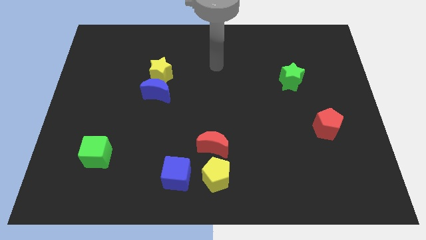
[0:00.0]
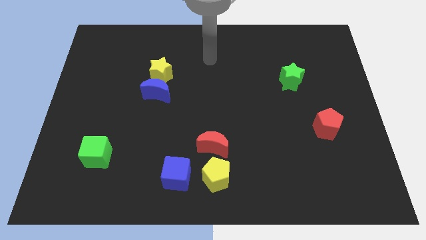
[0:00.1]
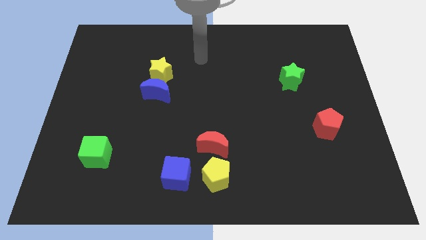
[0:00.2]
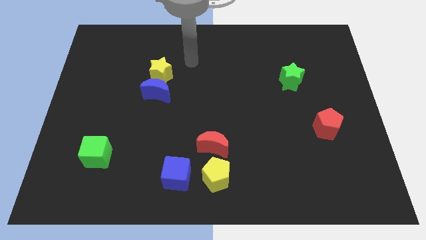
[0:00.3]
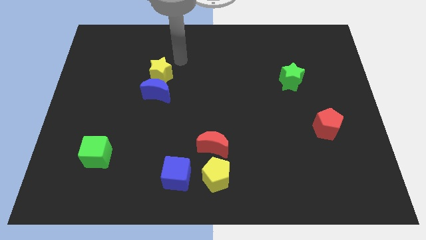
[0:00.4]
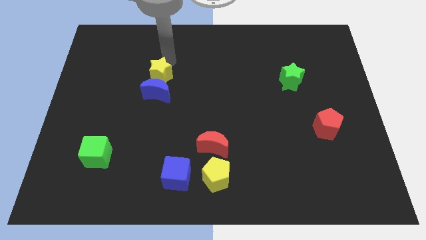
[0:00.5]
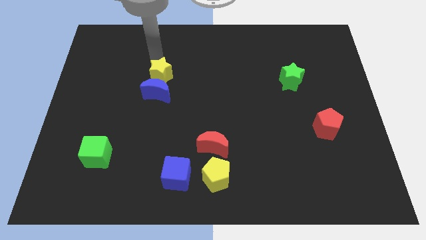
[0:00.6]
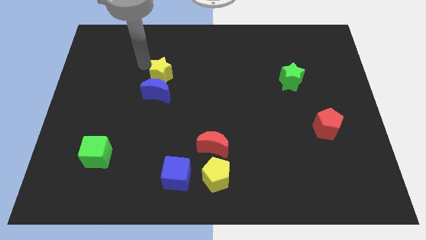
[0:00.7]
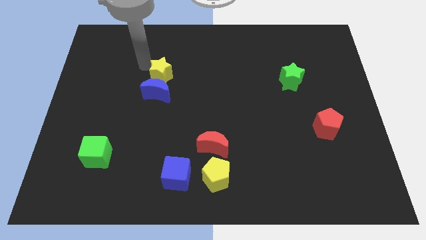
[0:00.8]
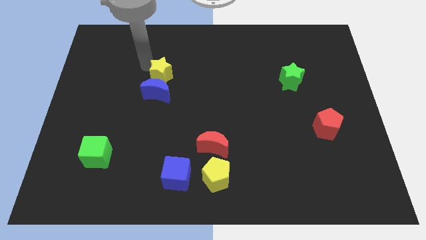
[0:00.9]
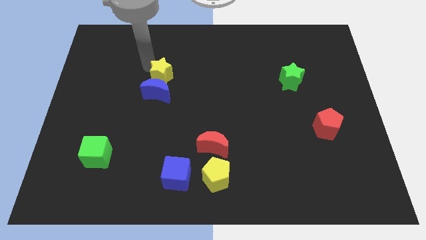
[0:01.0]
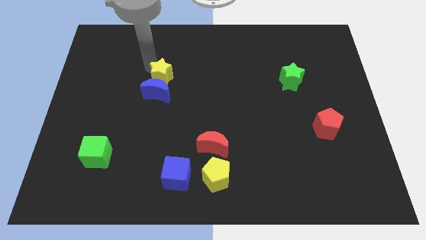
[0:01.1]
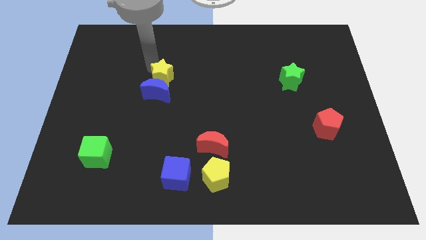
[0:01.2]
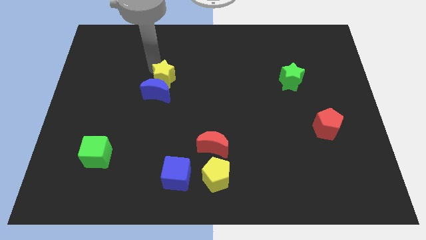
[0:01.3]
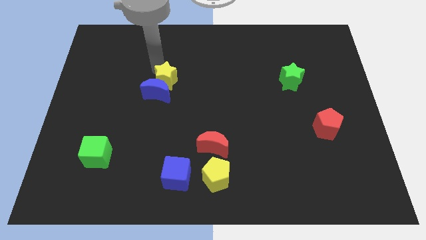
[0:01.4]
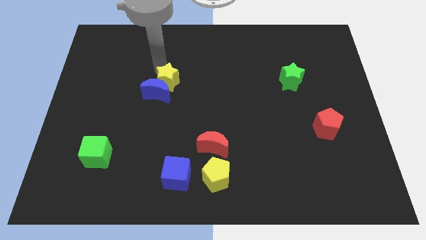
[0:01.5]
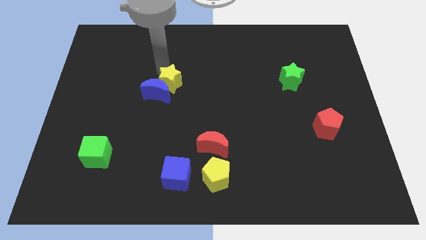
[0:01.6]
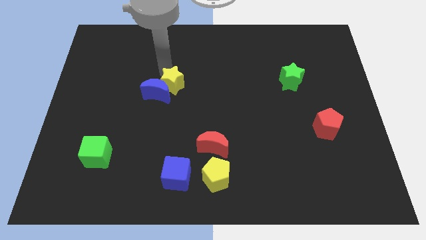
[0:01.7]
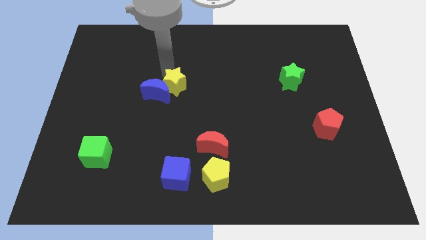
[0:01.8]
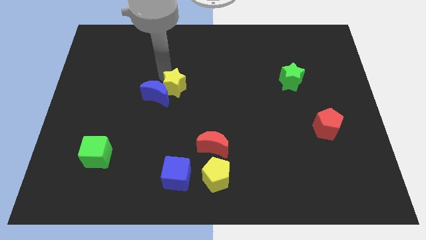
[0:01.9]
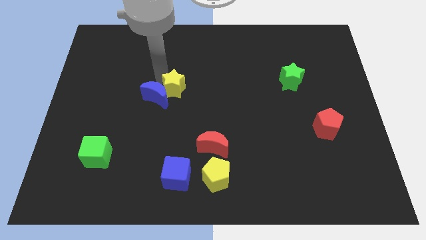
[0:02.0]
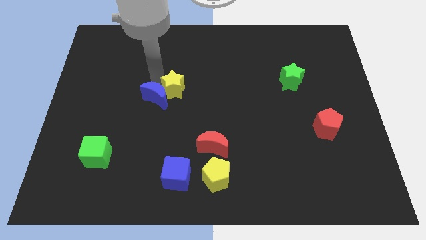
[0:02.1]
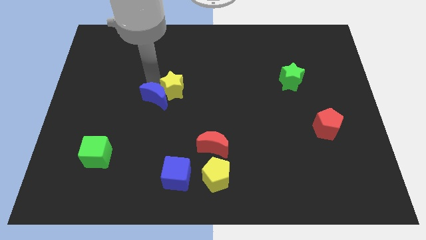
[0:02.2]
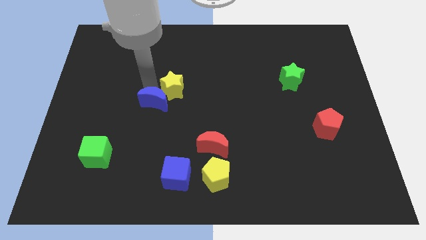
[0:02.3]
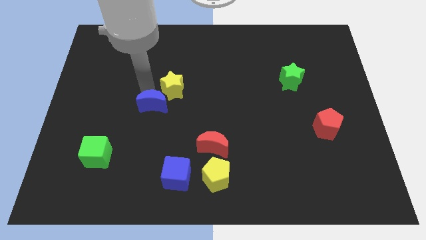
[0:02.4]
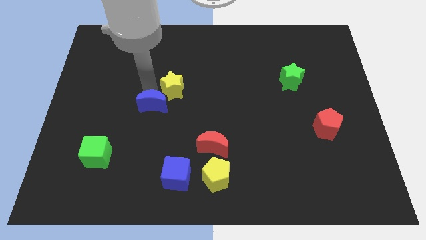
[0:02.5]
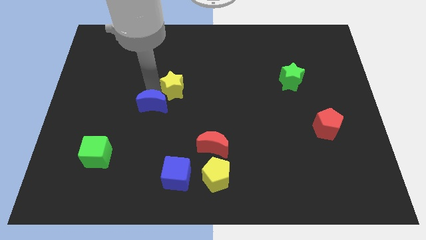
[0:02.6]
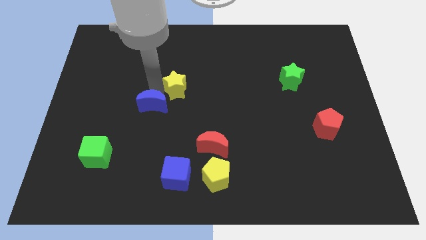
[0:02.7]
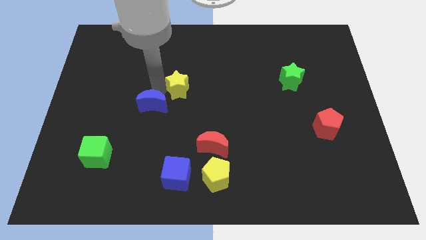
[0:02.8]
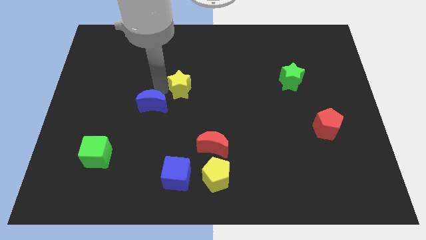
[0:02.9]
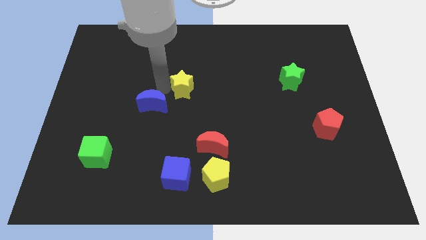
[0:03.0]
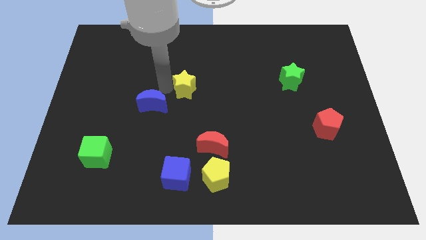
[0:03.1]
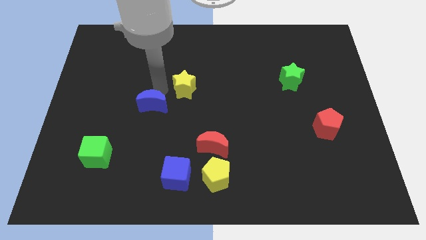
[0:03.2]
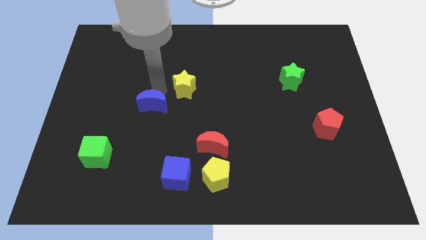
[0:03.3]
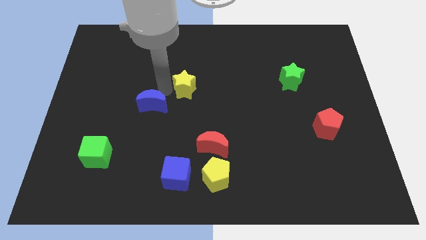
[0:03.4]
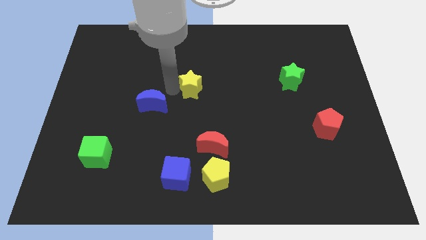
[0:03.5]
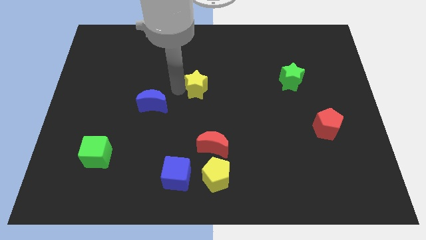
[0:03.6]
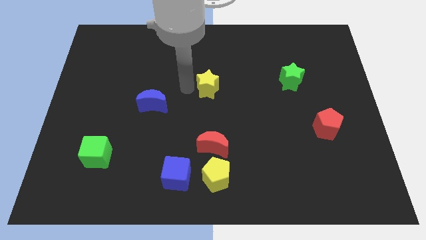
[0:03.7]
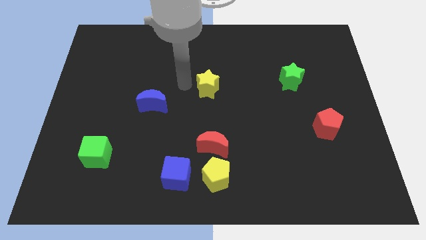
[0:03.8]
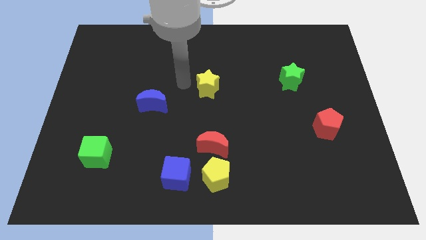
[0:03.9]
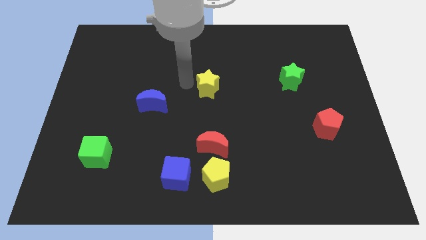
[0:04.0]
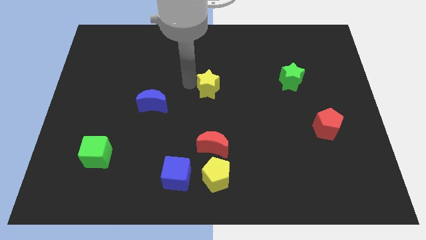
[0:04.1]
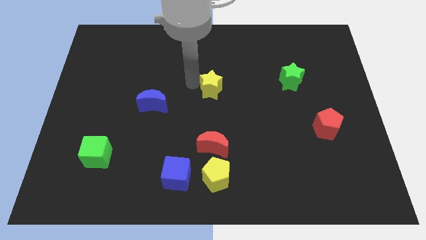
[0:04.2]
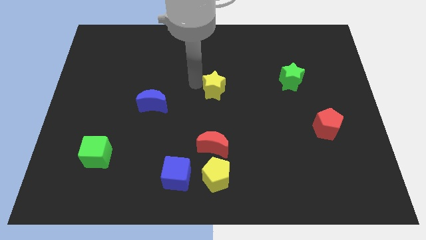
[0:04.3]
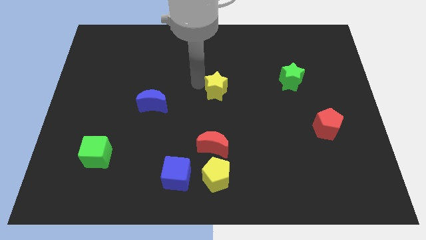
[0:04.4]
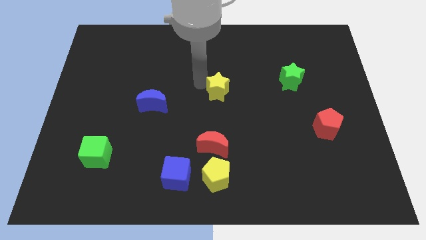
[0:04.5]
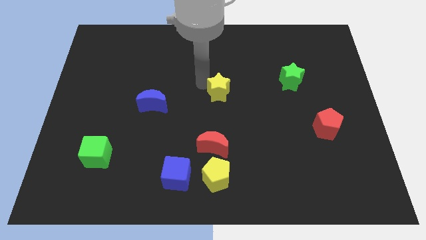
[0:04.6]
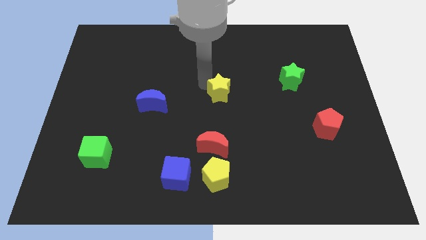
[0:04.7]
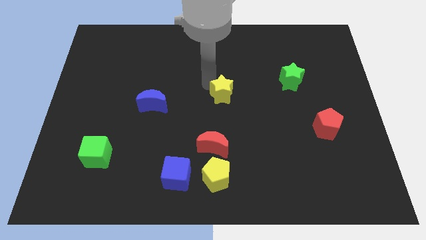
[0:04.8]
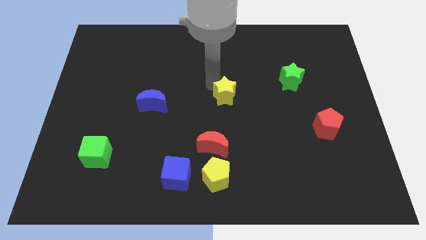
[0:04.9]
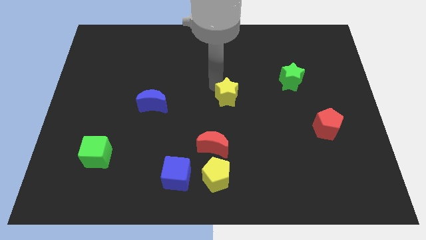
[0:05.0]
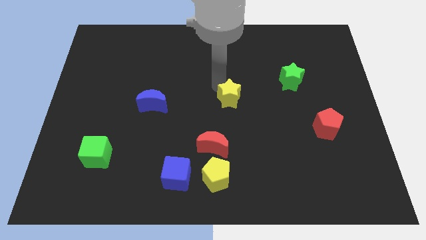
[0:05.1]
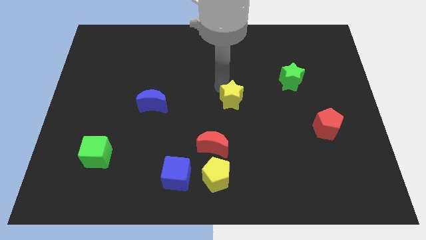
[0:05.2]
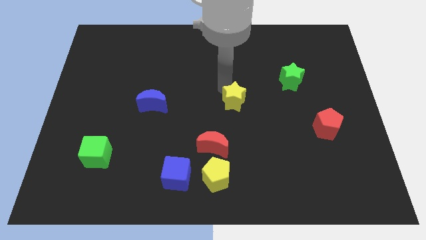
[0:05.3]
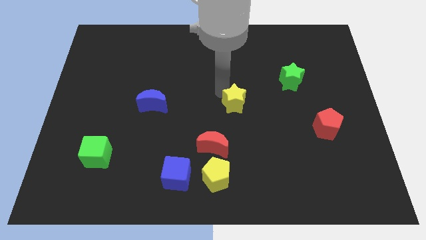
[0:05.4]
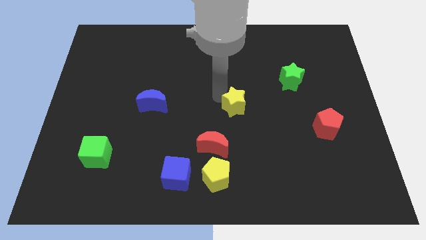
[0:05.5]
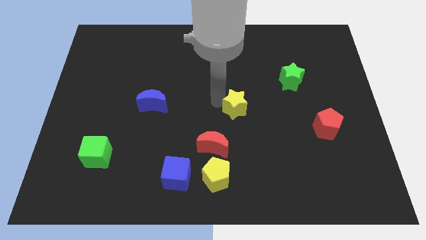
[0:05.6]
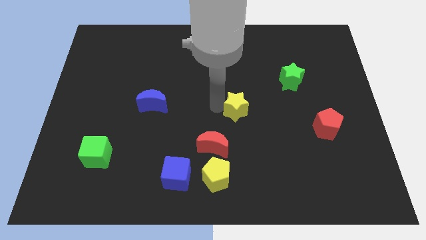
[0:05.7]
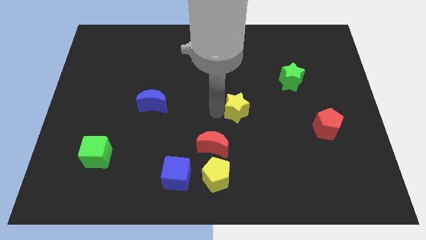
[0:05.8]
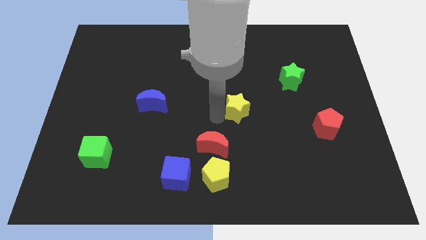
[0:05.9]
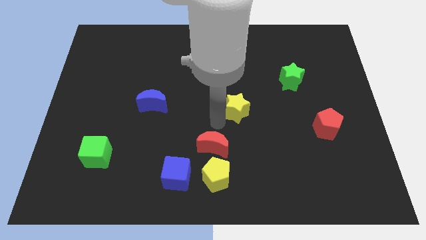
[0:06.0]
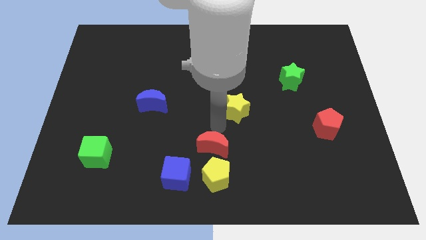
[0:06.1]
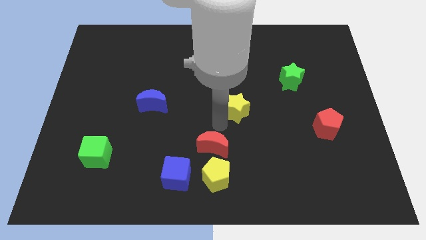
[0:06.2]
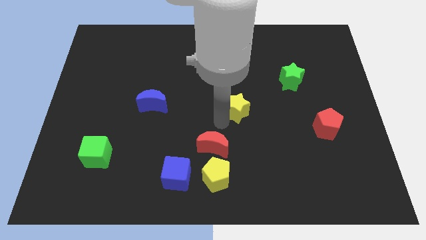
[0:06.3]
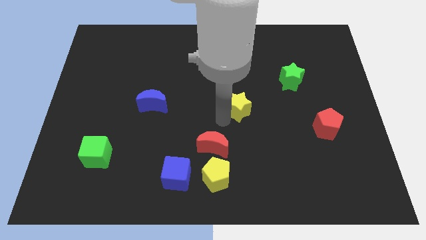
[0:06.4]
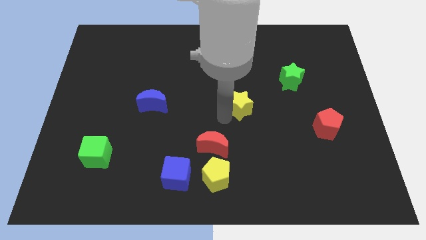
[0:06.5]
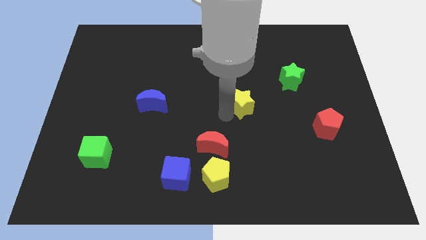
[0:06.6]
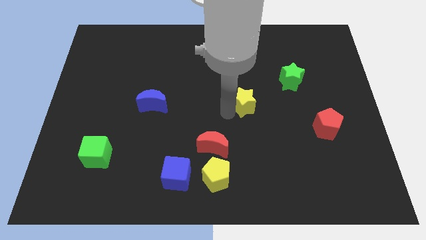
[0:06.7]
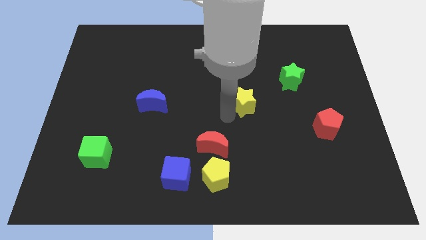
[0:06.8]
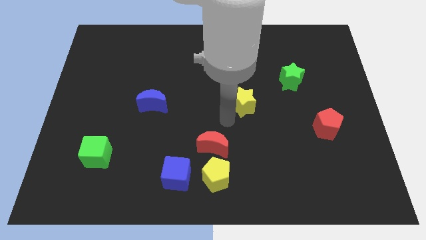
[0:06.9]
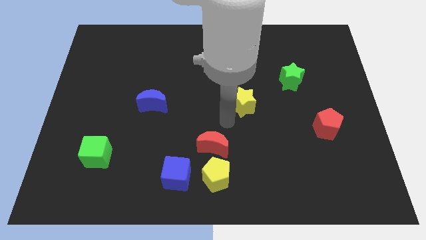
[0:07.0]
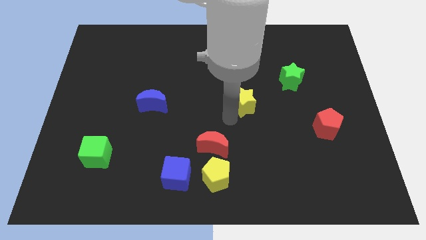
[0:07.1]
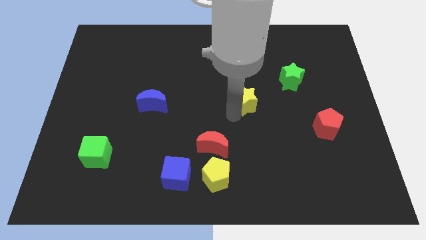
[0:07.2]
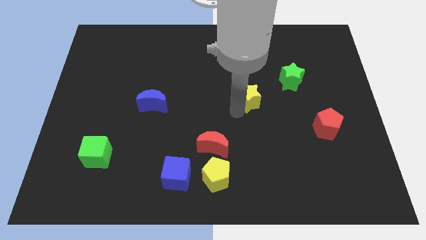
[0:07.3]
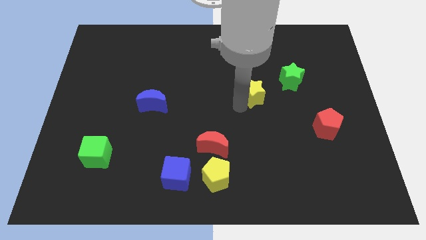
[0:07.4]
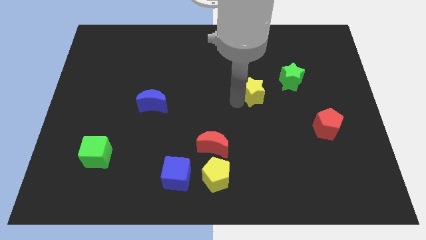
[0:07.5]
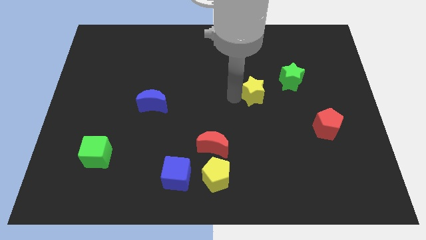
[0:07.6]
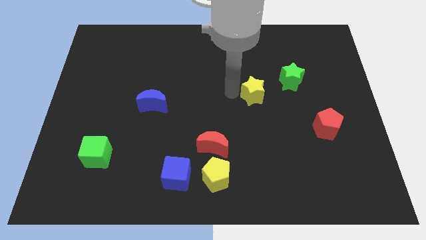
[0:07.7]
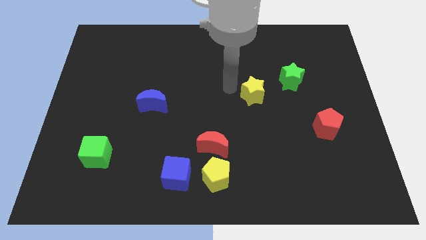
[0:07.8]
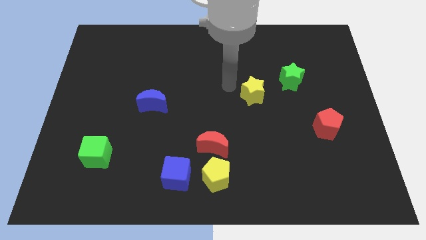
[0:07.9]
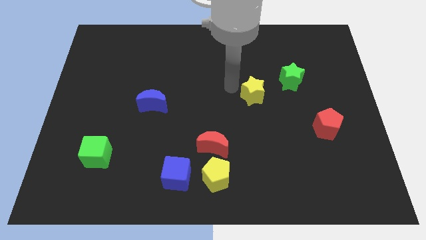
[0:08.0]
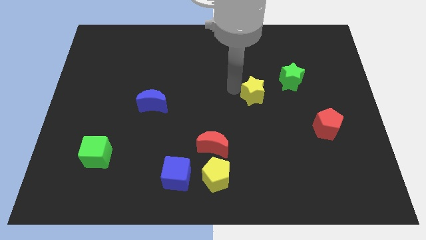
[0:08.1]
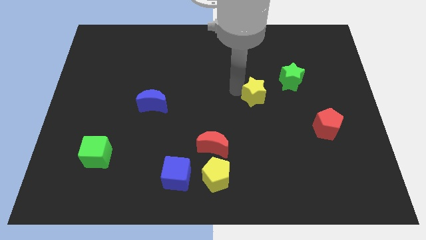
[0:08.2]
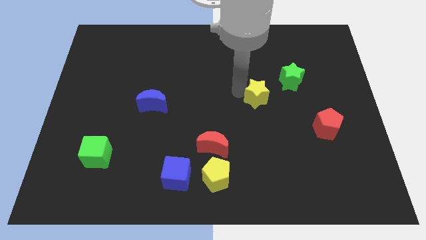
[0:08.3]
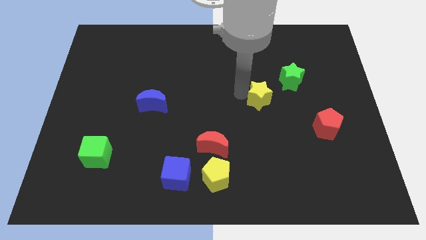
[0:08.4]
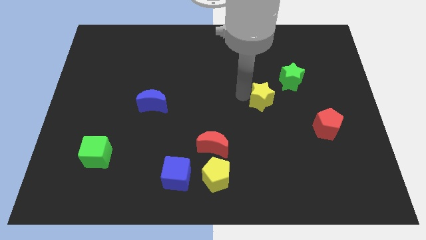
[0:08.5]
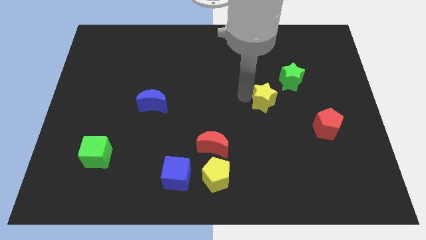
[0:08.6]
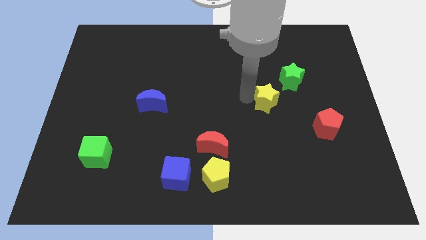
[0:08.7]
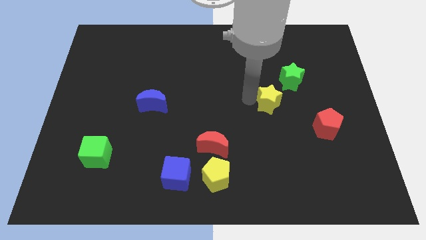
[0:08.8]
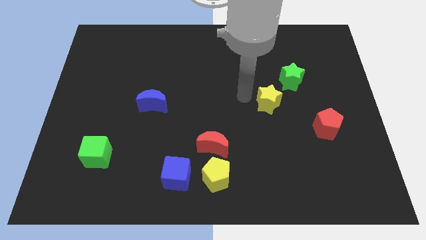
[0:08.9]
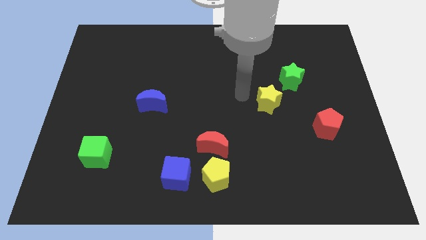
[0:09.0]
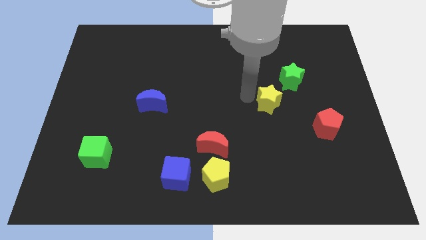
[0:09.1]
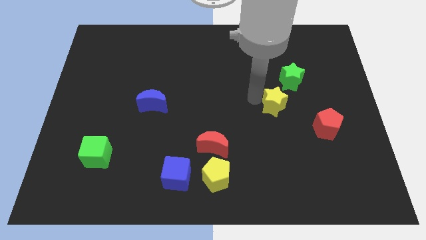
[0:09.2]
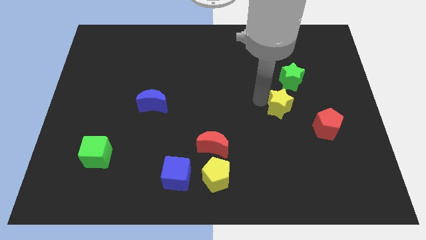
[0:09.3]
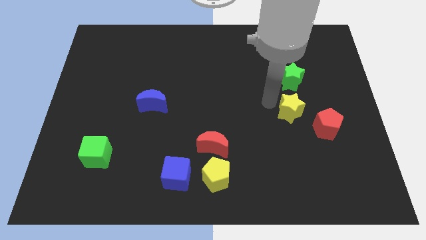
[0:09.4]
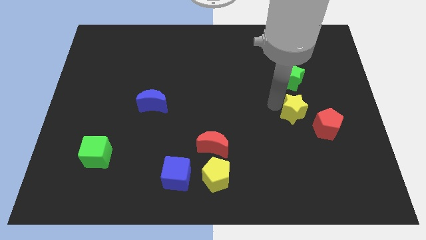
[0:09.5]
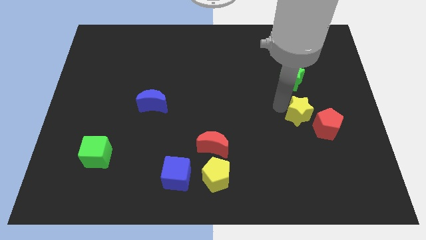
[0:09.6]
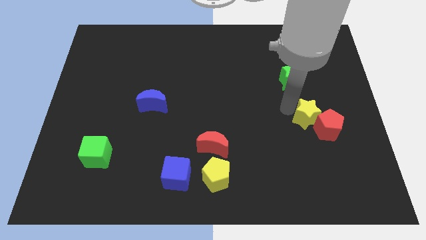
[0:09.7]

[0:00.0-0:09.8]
move the yellow star next to the red pentagon
